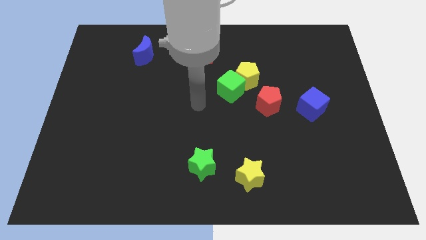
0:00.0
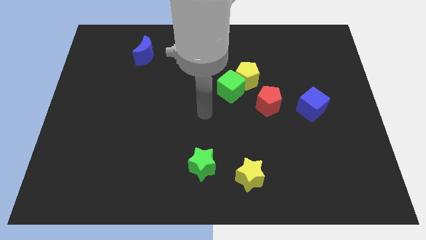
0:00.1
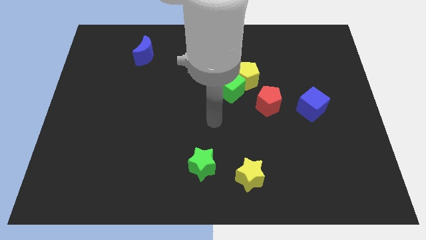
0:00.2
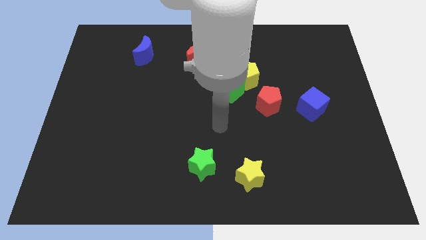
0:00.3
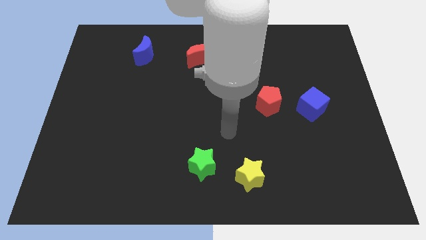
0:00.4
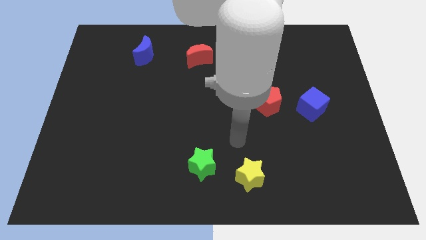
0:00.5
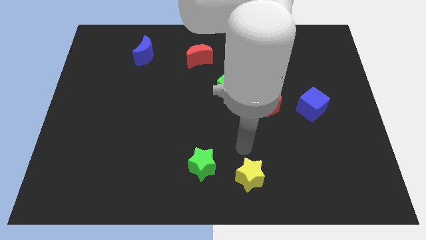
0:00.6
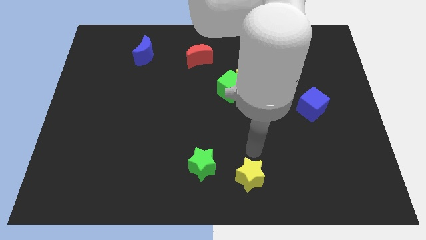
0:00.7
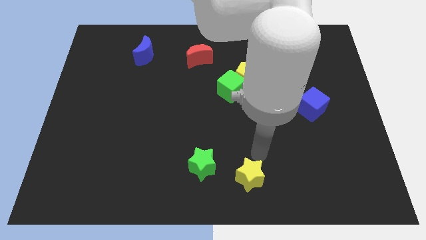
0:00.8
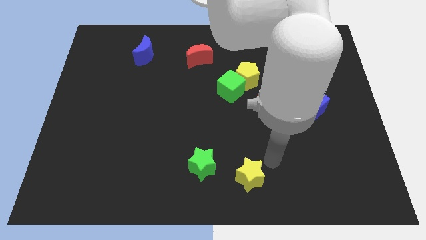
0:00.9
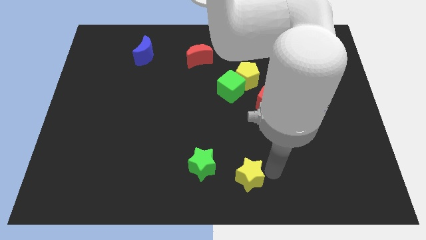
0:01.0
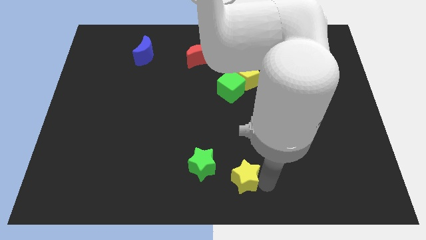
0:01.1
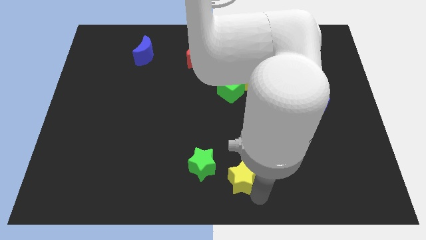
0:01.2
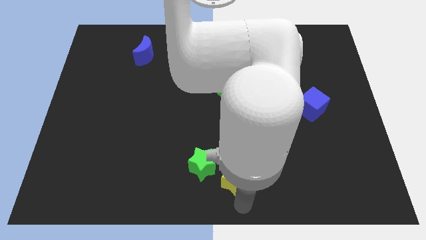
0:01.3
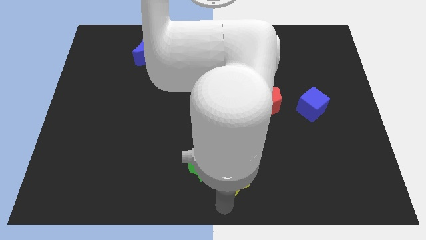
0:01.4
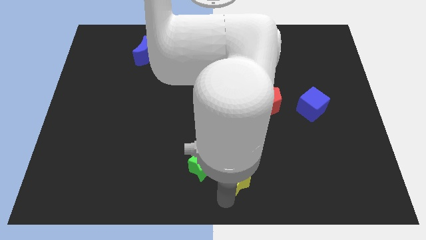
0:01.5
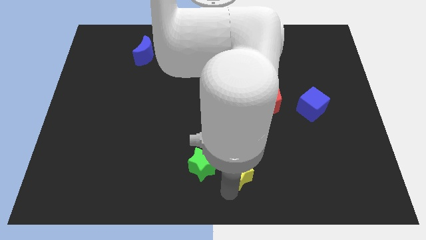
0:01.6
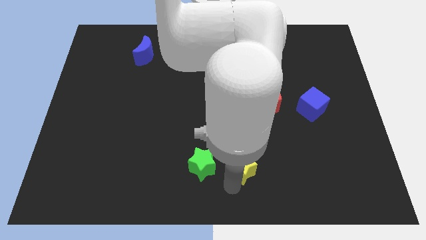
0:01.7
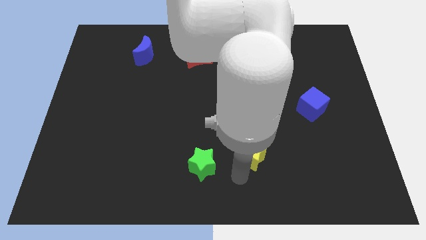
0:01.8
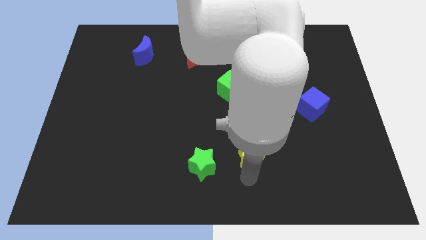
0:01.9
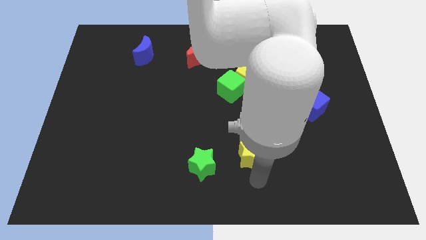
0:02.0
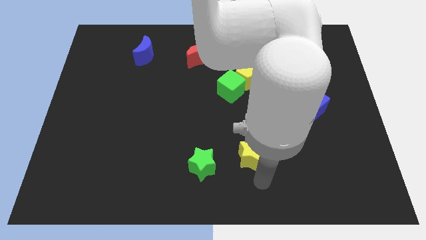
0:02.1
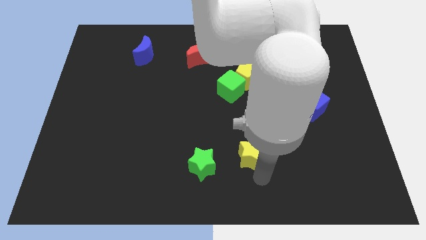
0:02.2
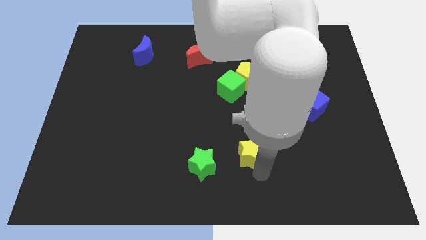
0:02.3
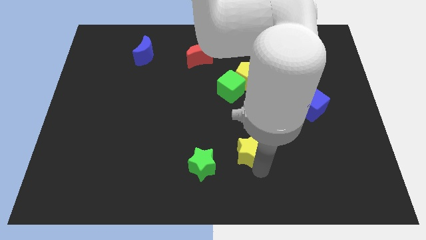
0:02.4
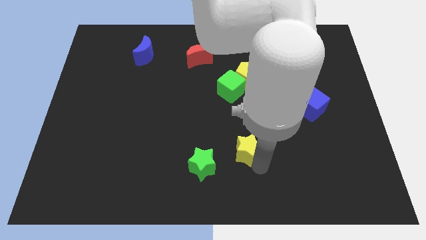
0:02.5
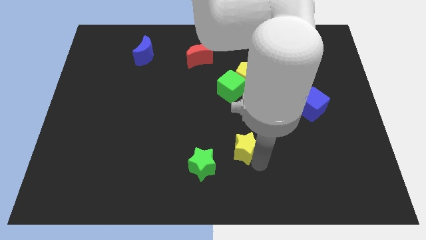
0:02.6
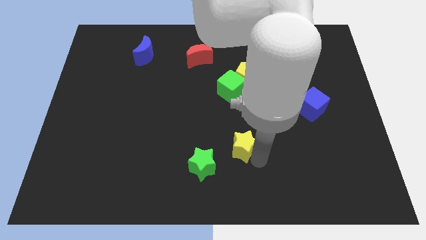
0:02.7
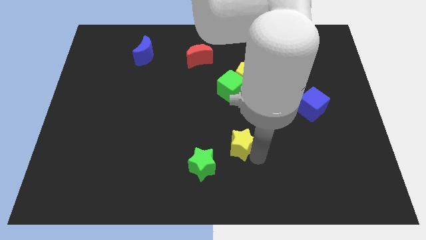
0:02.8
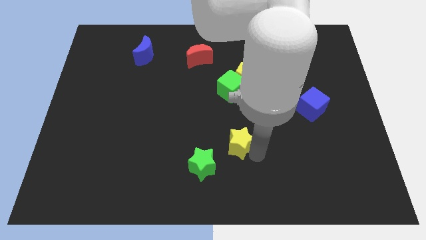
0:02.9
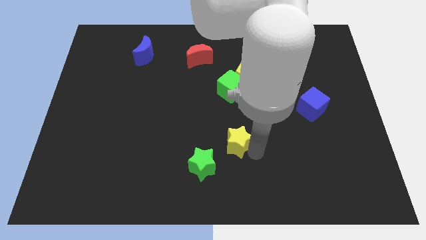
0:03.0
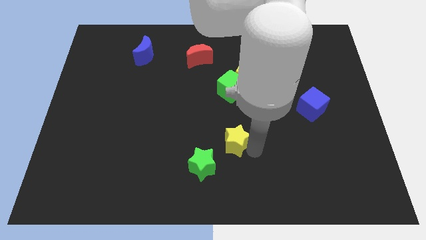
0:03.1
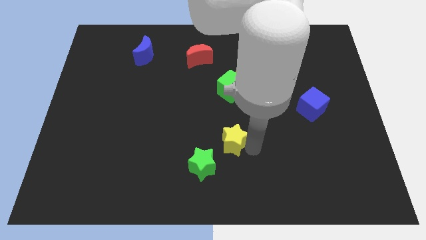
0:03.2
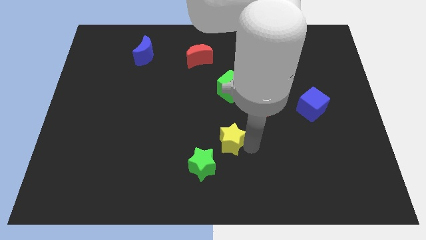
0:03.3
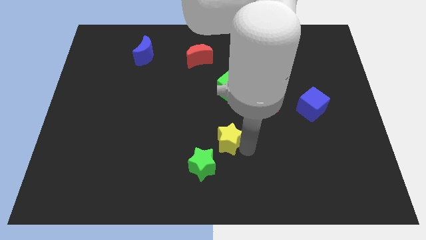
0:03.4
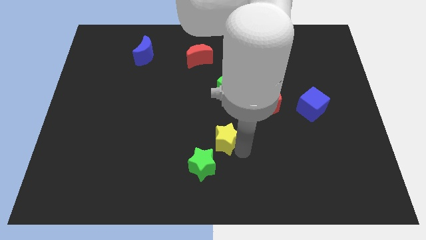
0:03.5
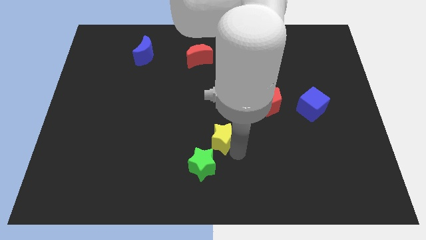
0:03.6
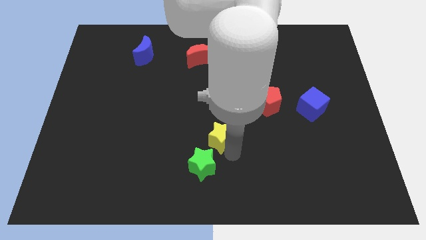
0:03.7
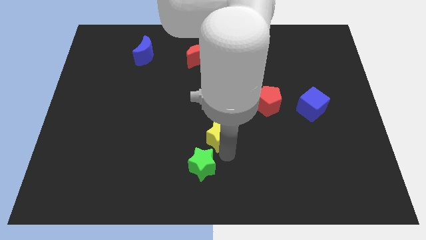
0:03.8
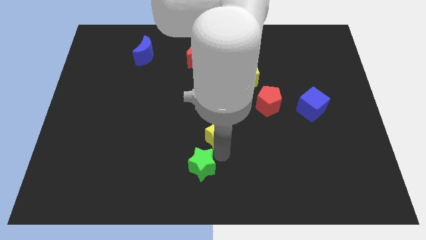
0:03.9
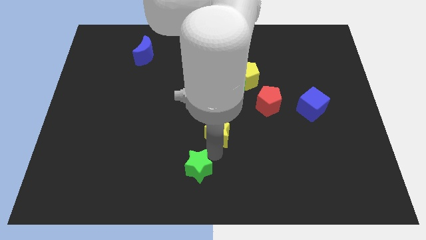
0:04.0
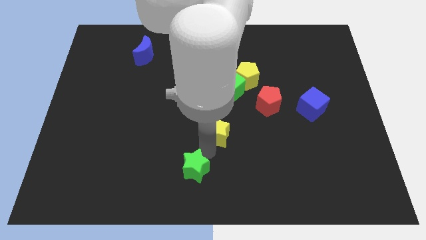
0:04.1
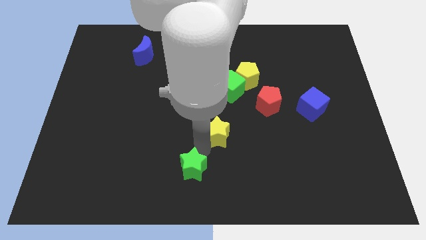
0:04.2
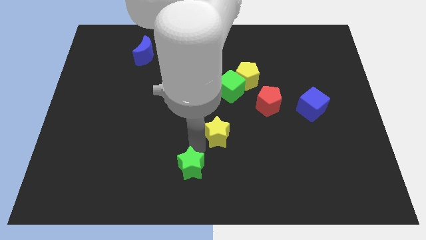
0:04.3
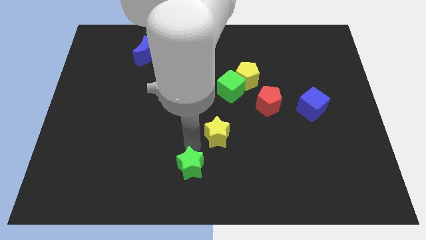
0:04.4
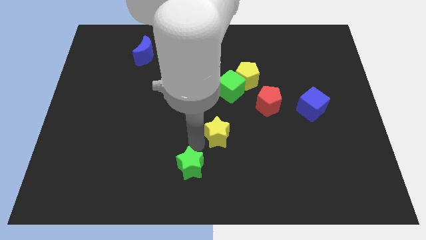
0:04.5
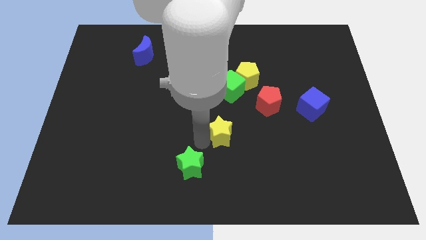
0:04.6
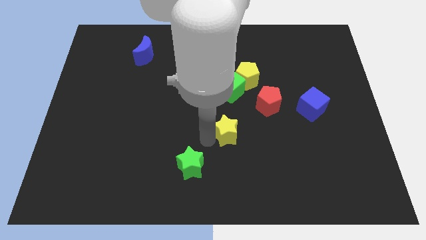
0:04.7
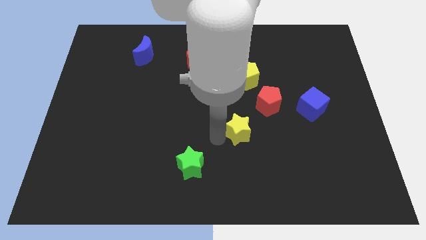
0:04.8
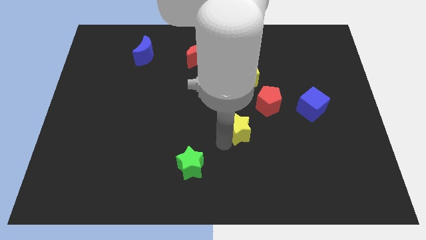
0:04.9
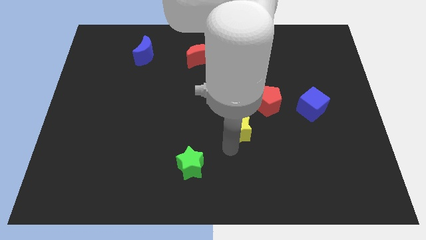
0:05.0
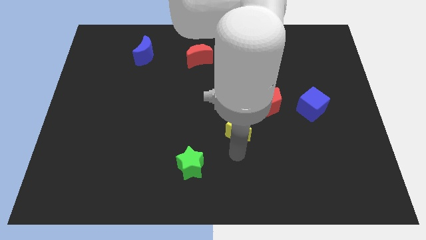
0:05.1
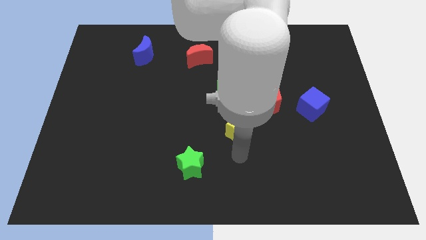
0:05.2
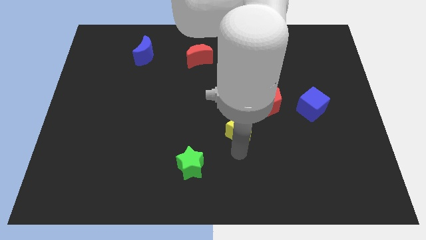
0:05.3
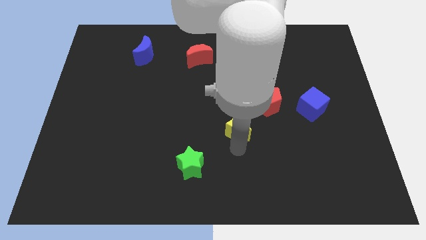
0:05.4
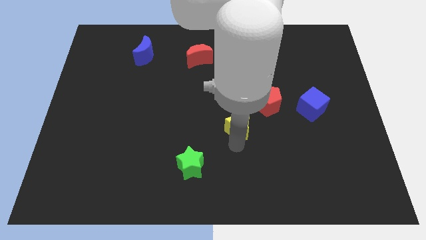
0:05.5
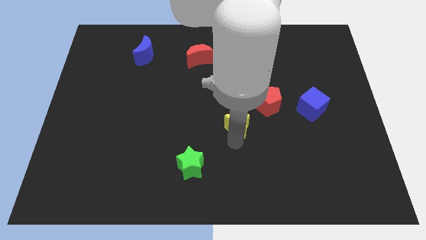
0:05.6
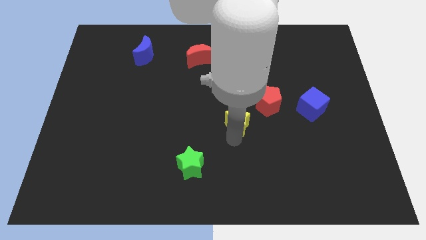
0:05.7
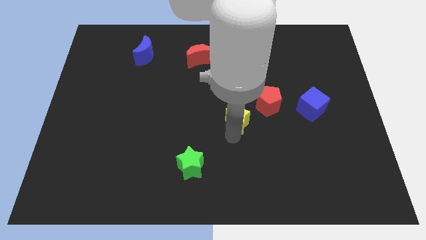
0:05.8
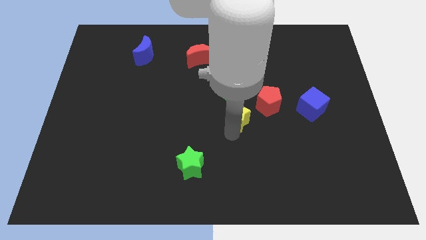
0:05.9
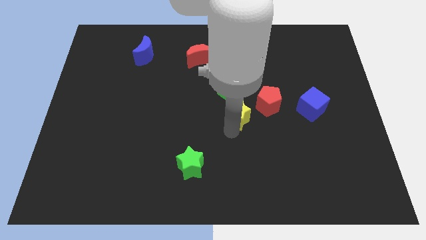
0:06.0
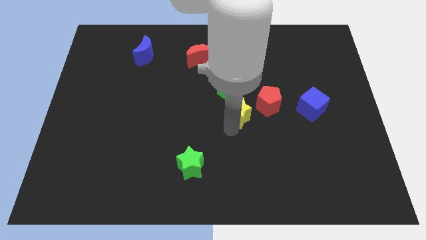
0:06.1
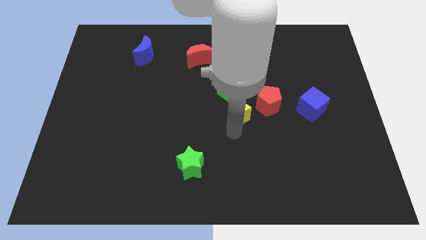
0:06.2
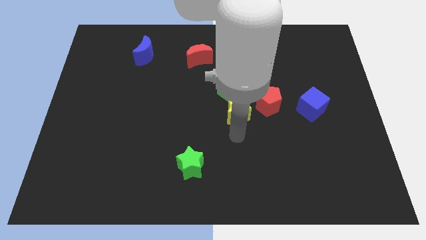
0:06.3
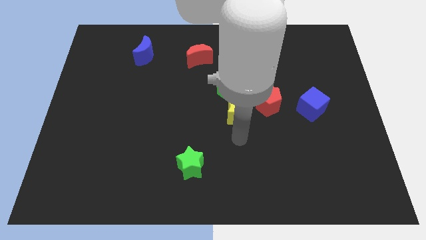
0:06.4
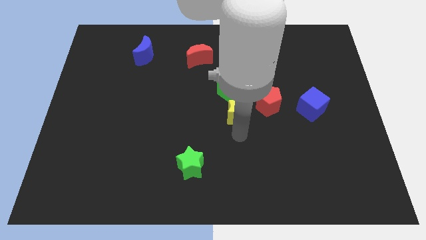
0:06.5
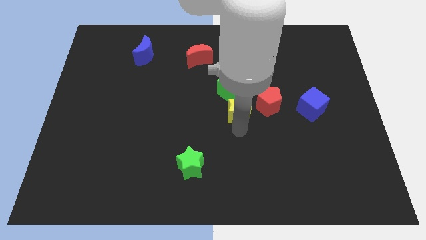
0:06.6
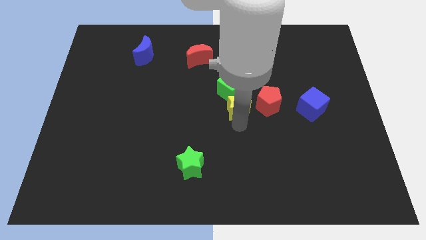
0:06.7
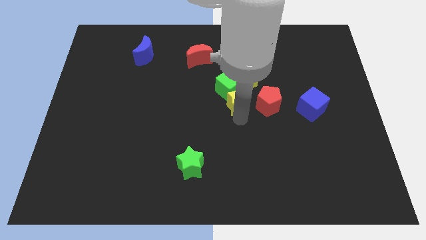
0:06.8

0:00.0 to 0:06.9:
put the yellow star to the green cube
